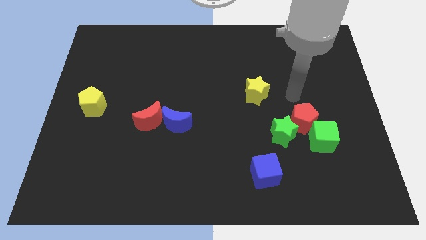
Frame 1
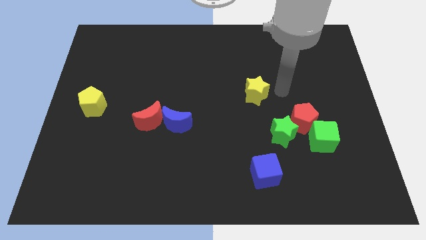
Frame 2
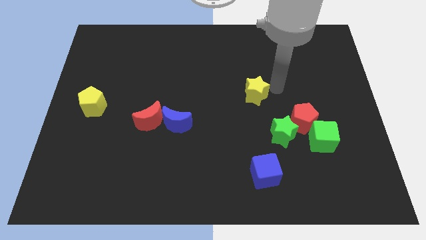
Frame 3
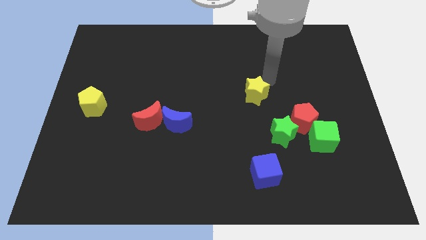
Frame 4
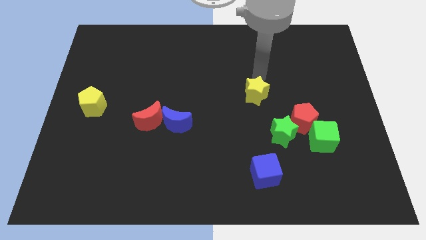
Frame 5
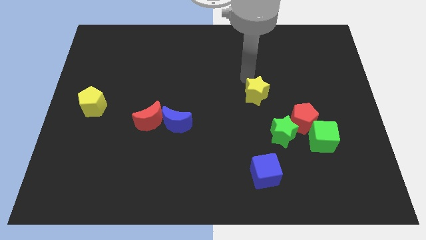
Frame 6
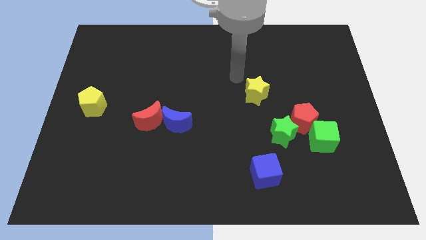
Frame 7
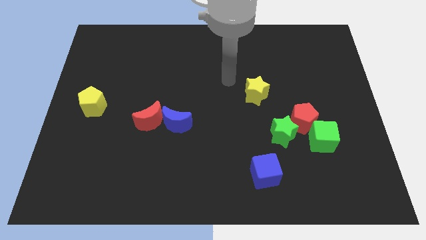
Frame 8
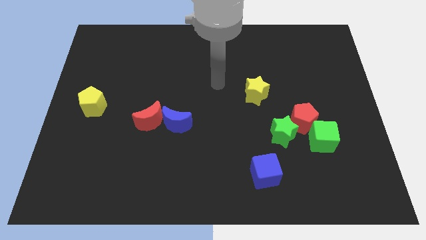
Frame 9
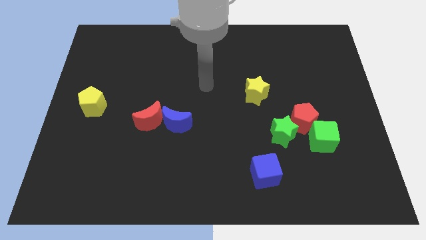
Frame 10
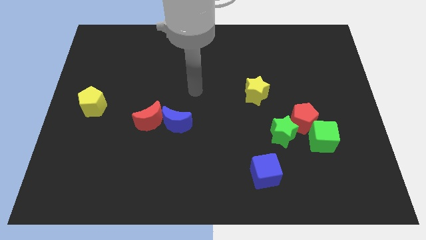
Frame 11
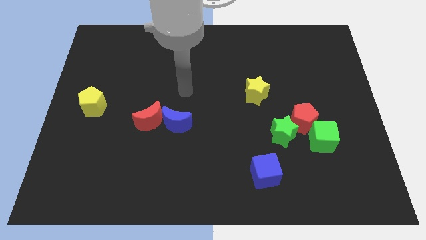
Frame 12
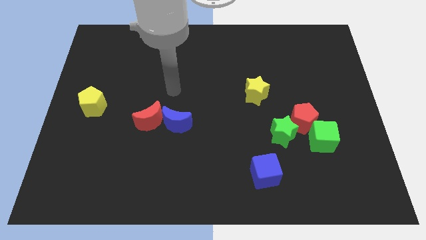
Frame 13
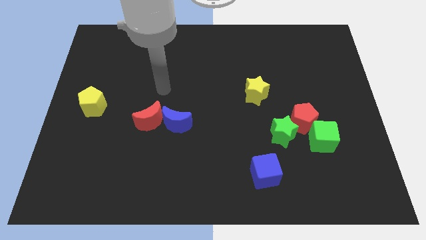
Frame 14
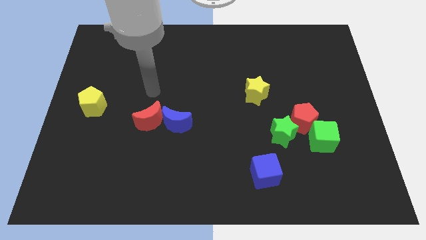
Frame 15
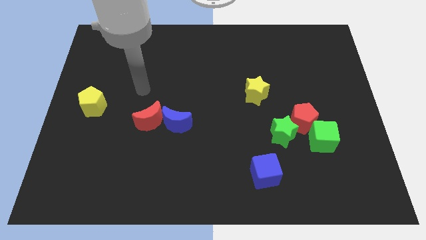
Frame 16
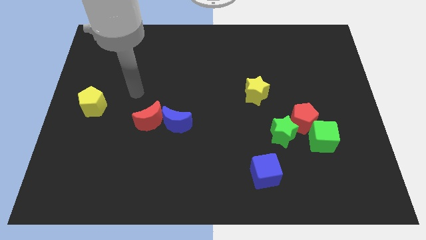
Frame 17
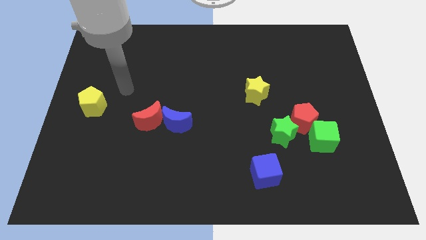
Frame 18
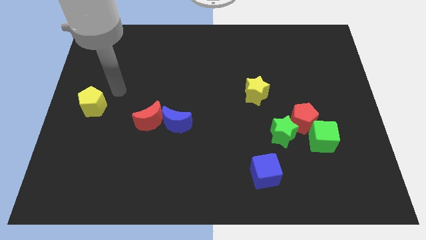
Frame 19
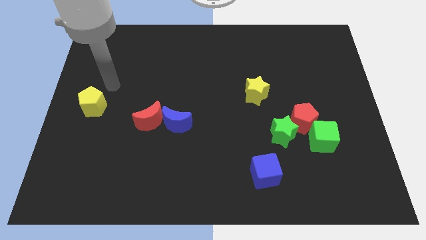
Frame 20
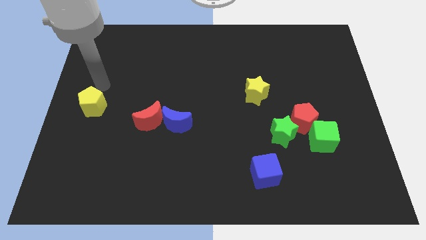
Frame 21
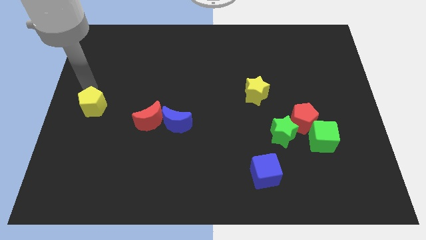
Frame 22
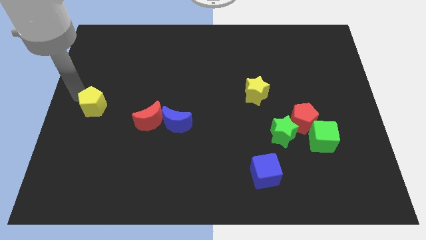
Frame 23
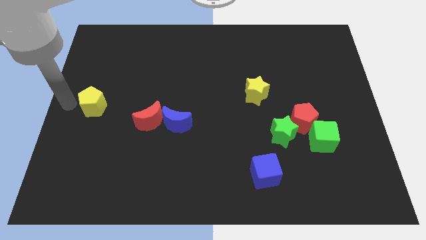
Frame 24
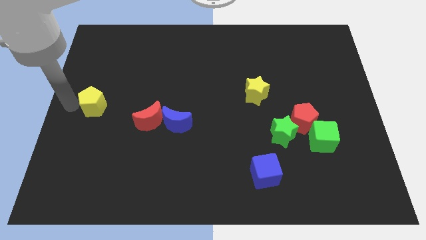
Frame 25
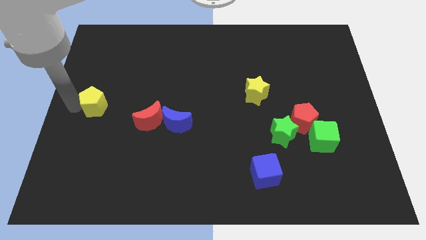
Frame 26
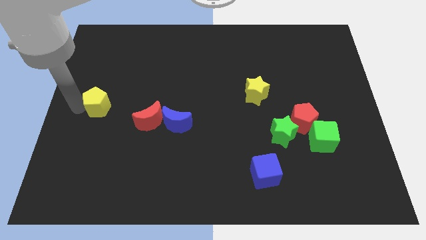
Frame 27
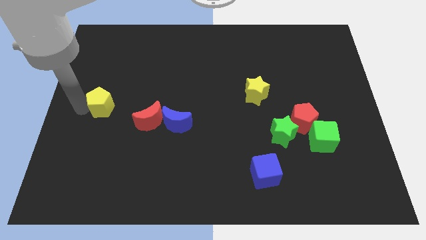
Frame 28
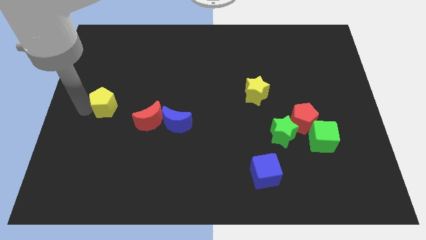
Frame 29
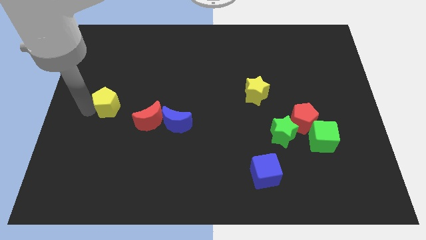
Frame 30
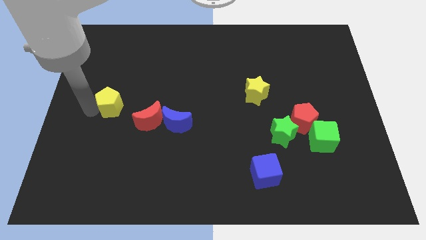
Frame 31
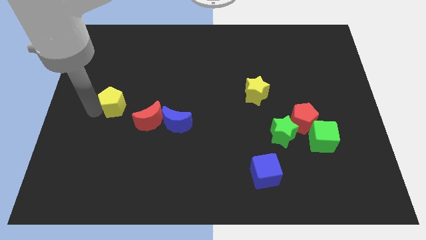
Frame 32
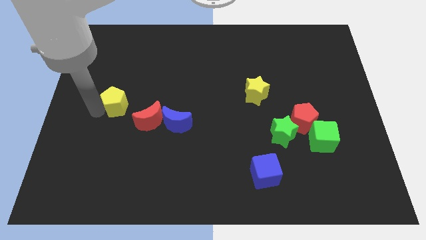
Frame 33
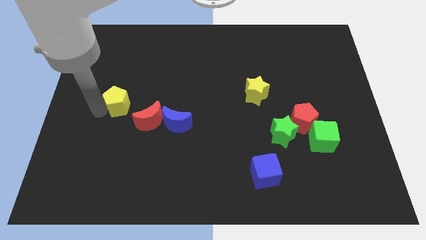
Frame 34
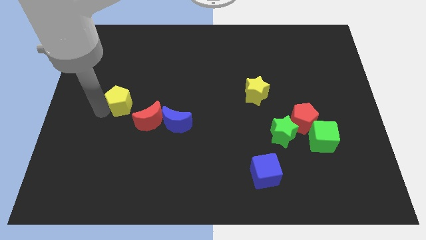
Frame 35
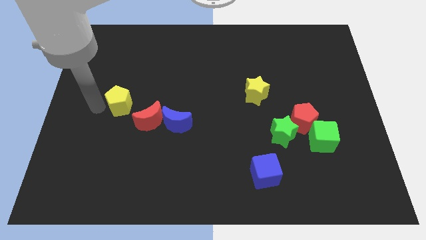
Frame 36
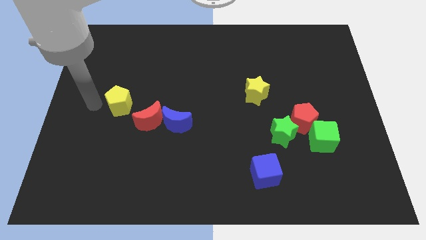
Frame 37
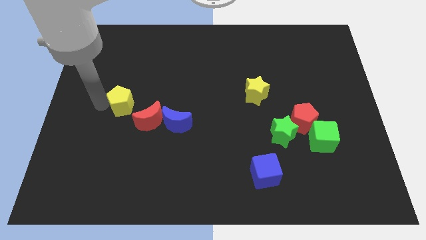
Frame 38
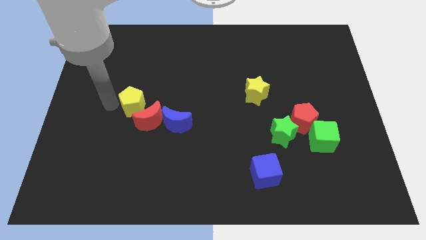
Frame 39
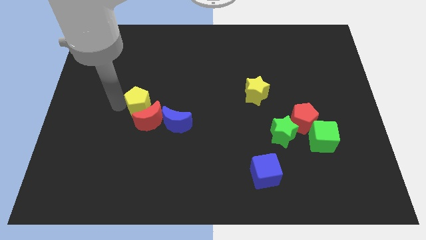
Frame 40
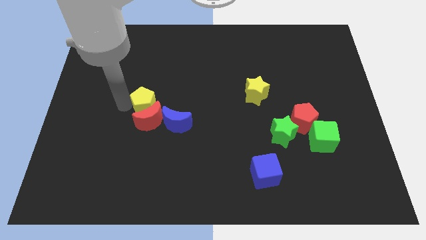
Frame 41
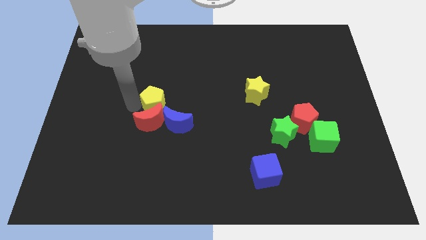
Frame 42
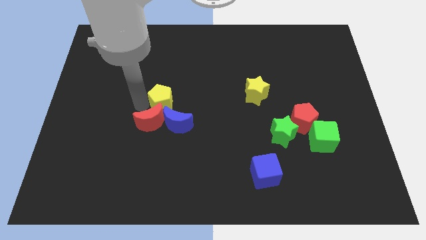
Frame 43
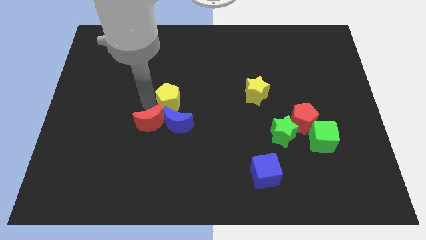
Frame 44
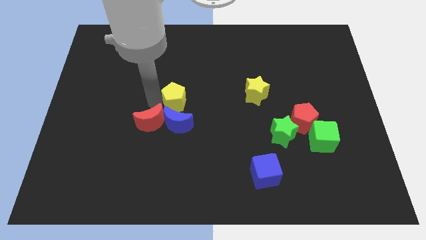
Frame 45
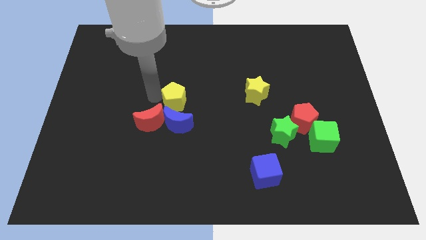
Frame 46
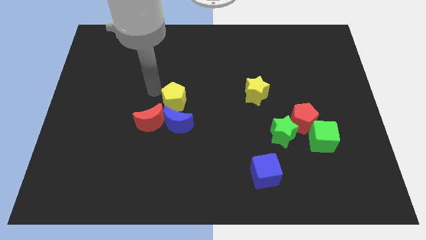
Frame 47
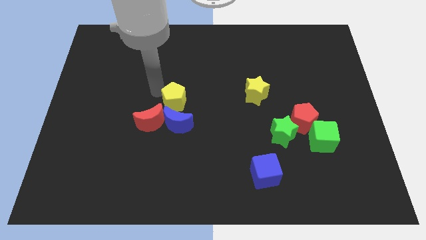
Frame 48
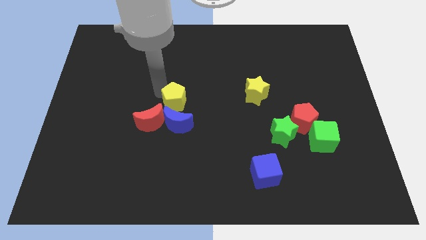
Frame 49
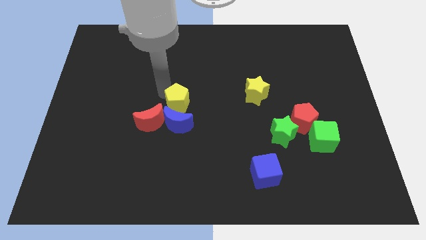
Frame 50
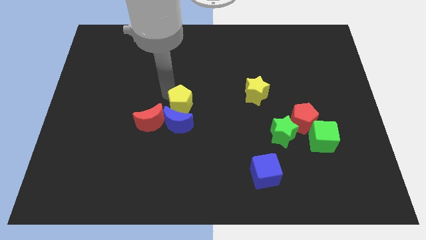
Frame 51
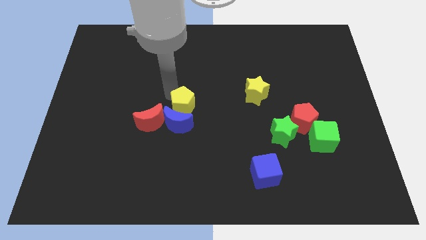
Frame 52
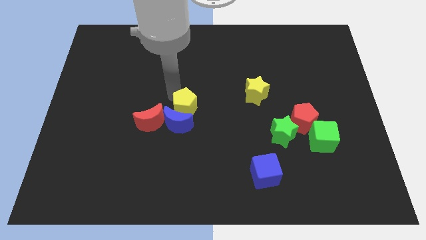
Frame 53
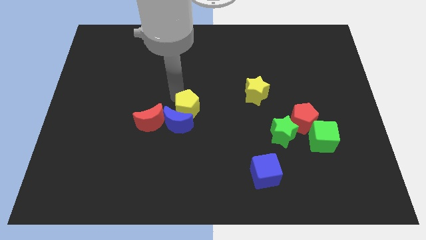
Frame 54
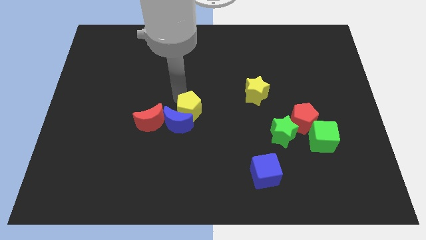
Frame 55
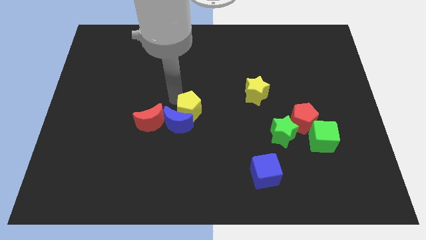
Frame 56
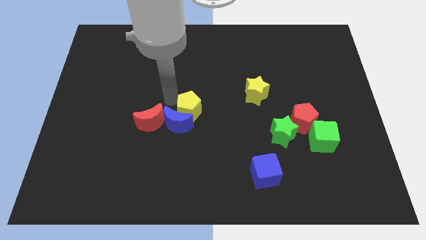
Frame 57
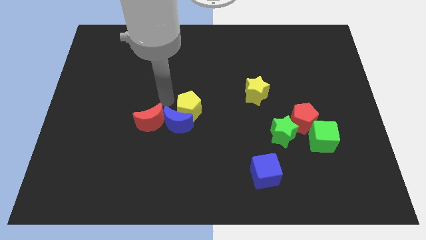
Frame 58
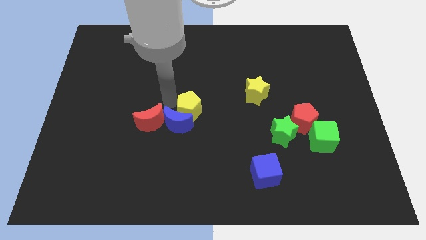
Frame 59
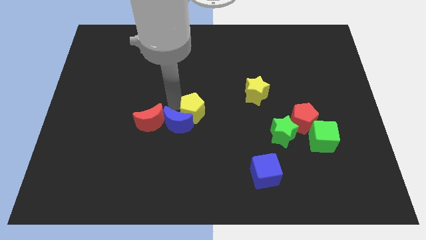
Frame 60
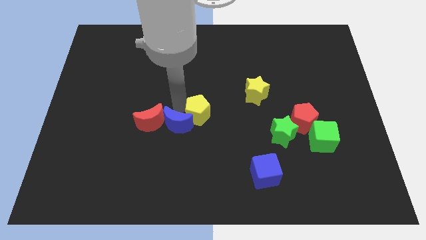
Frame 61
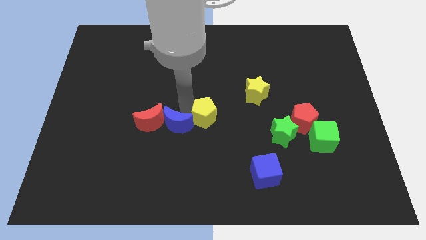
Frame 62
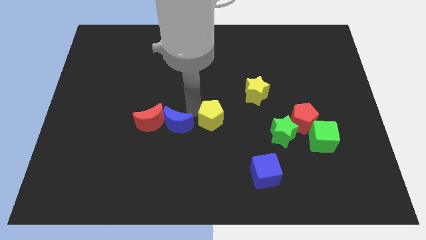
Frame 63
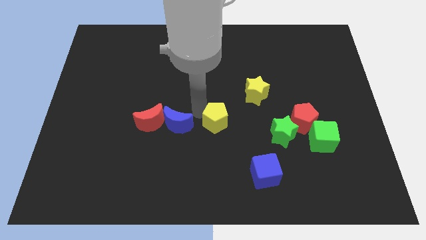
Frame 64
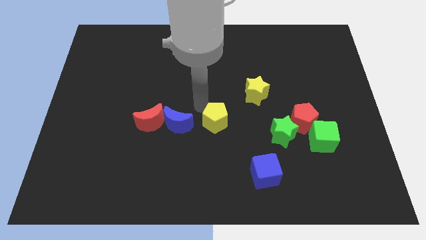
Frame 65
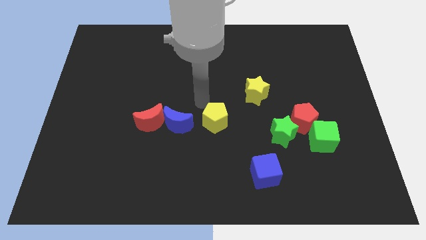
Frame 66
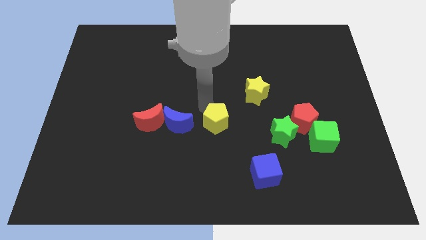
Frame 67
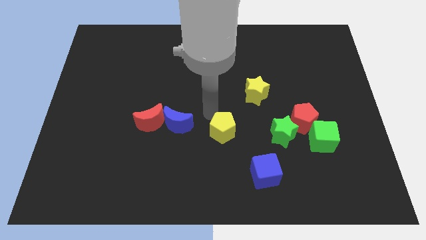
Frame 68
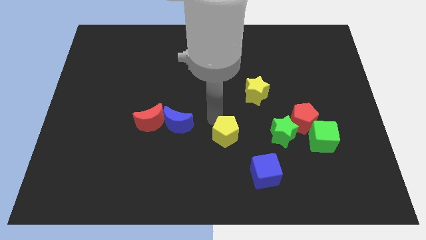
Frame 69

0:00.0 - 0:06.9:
move the yellow pentagon to the top left side of the blue cube
